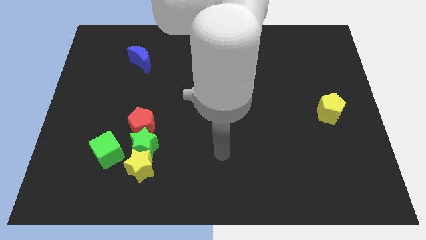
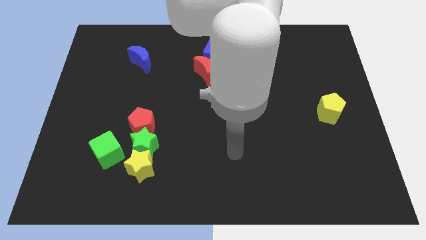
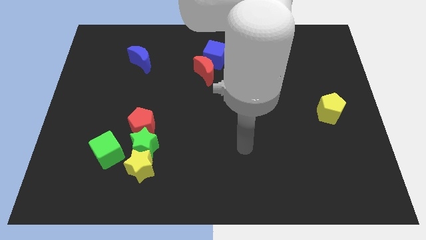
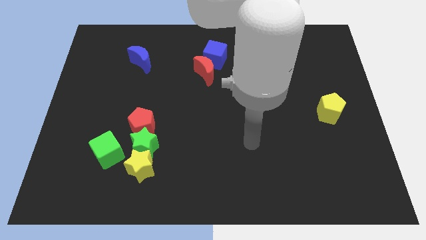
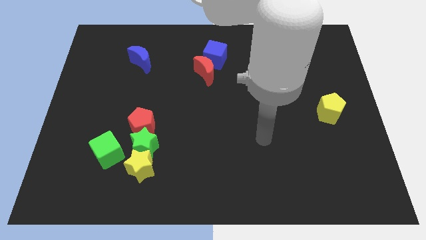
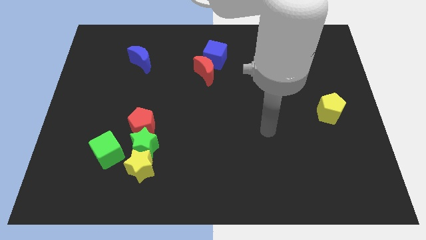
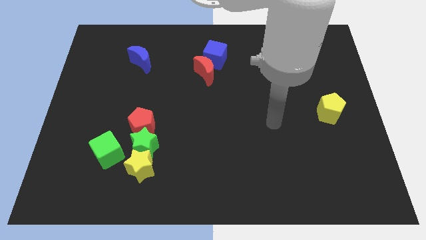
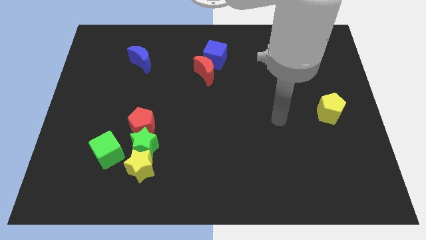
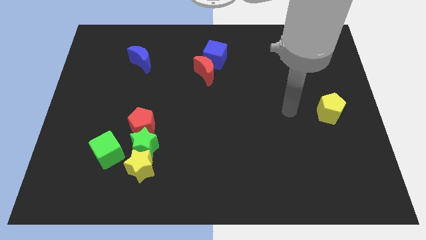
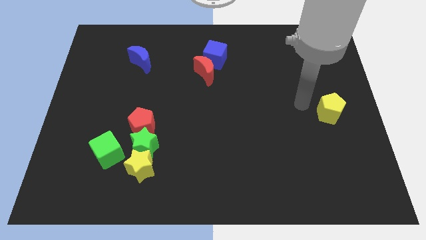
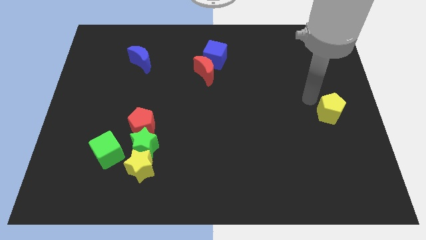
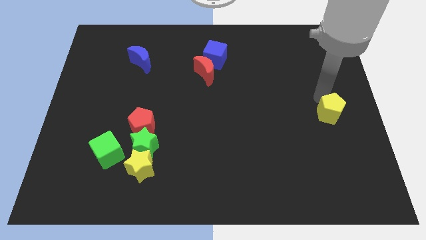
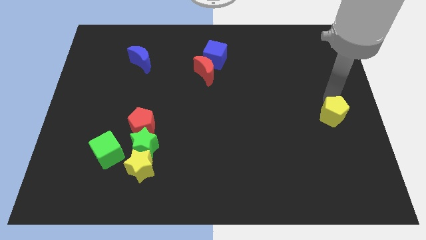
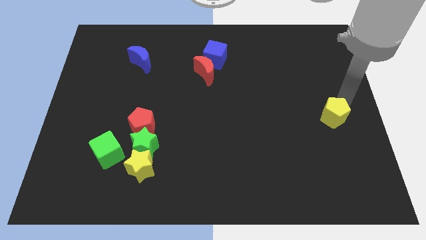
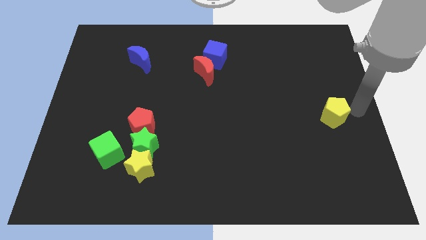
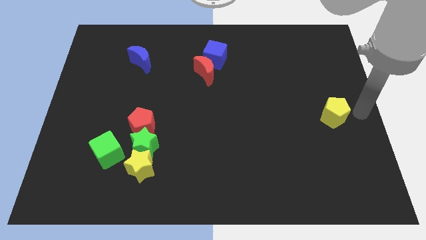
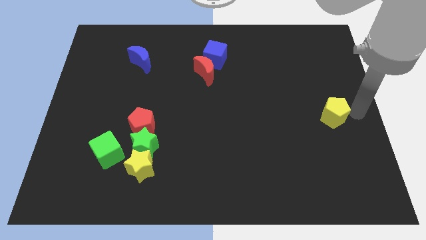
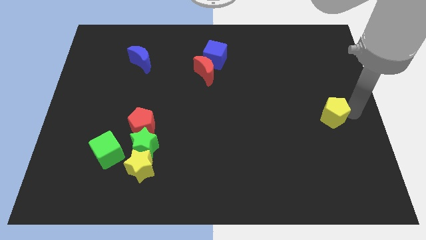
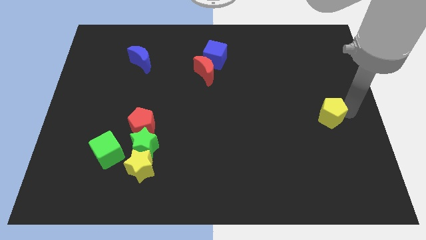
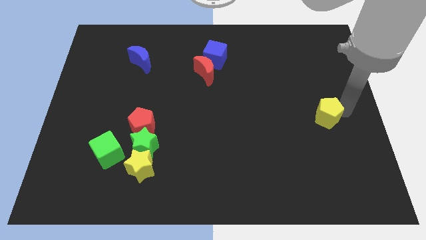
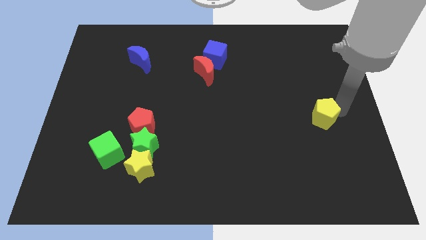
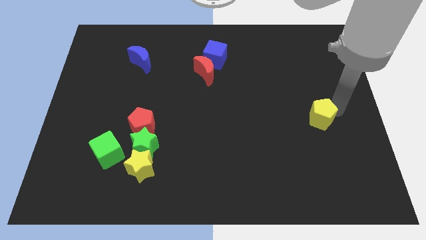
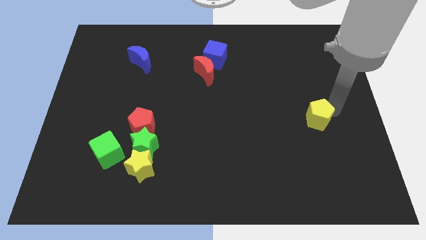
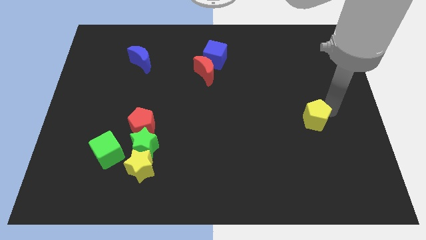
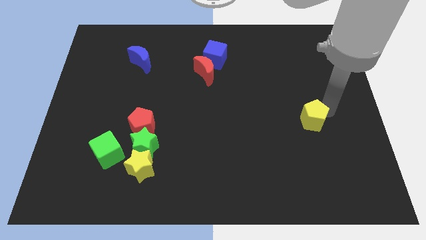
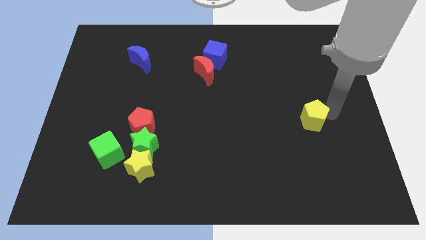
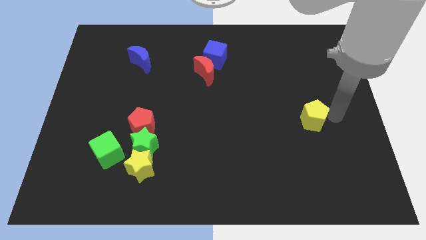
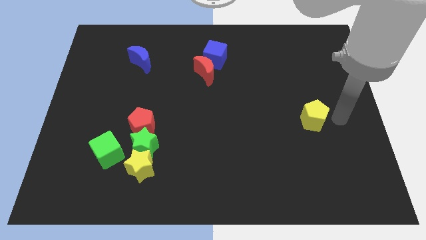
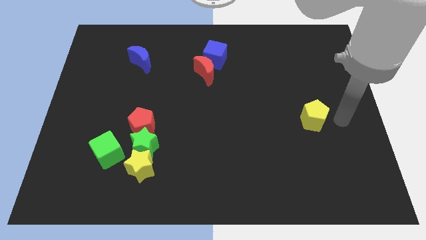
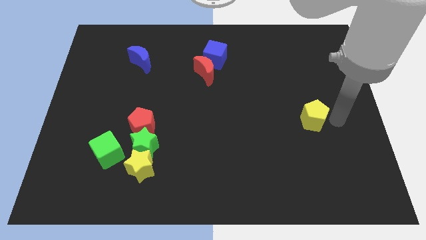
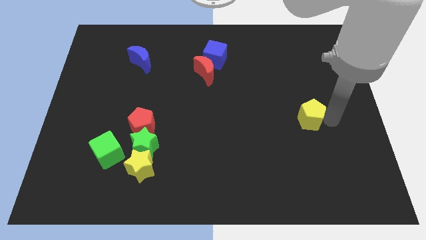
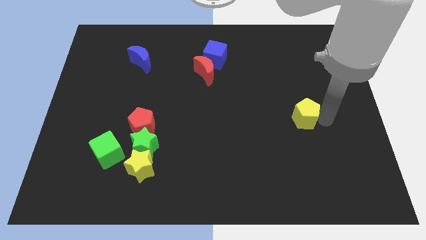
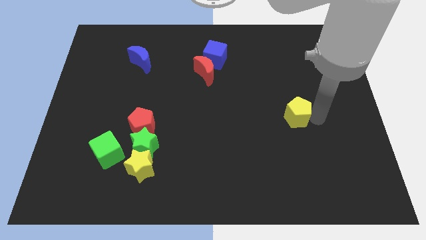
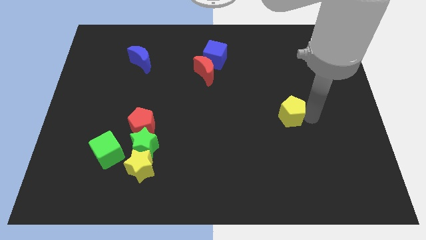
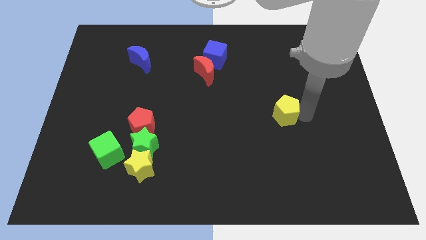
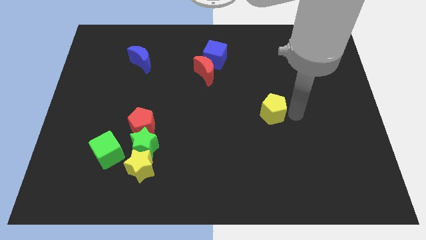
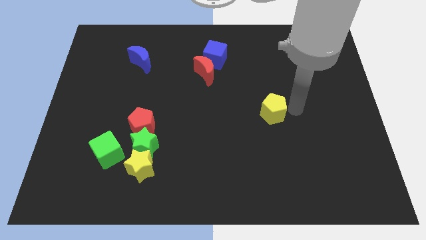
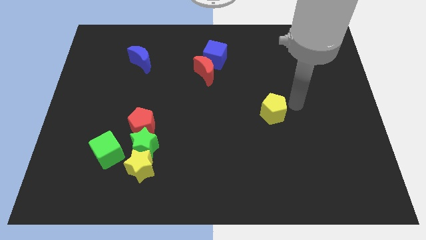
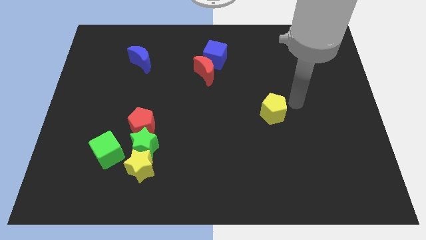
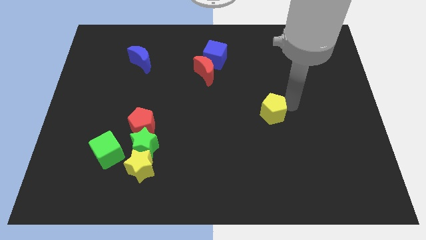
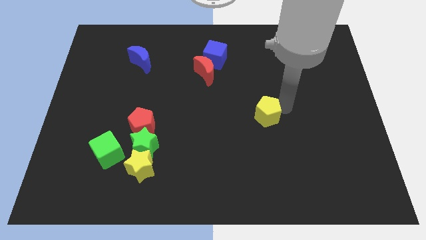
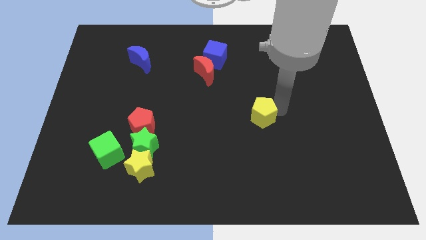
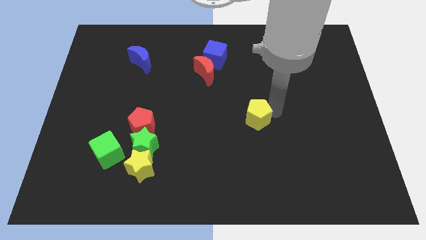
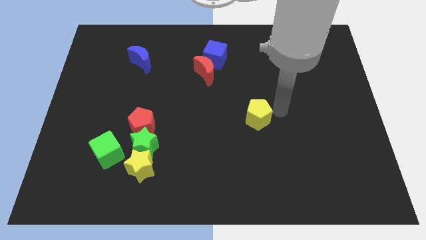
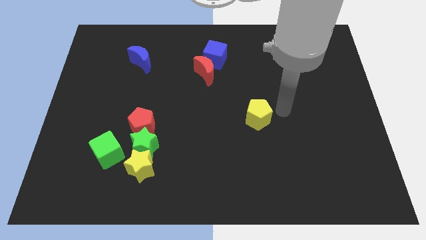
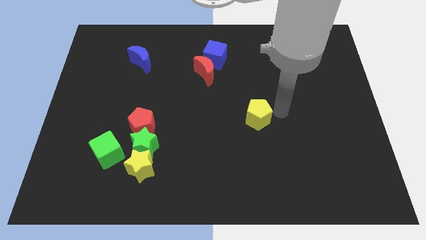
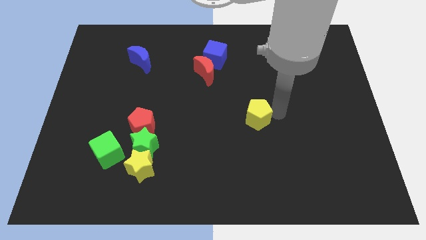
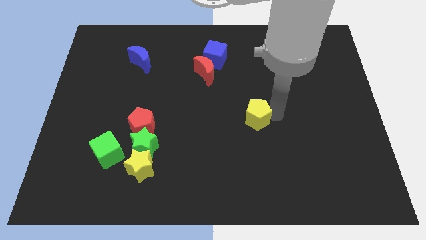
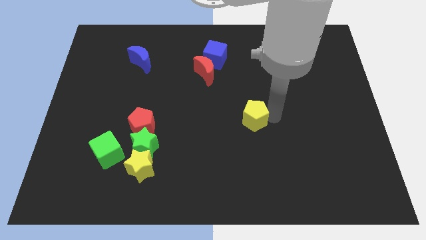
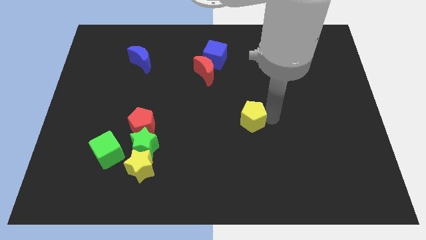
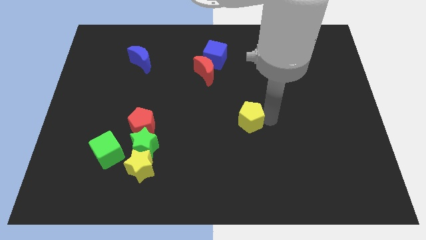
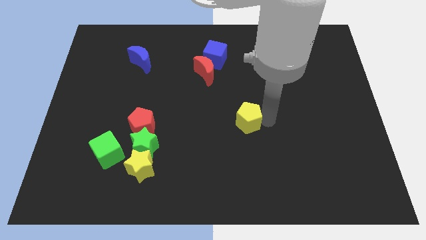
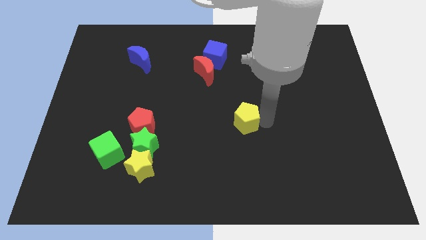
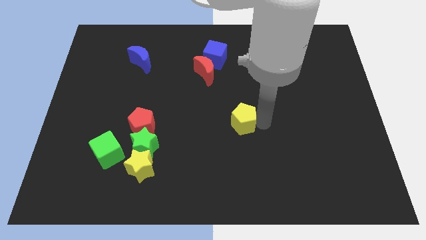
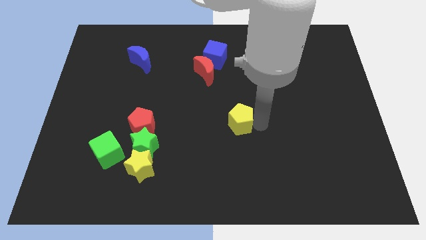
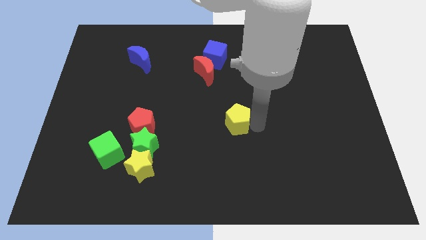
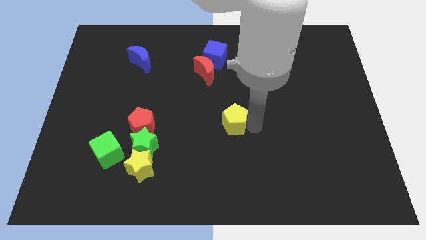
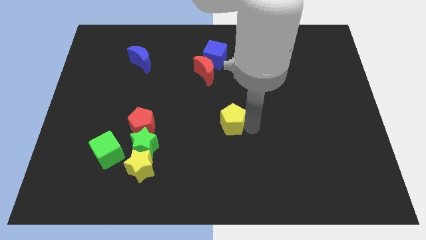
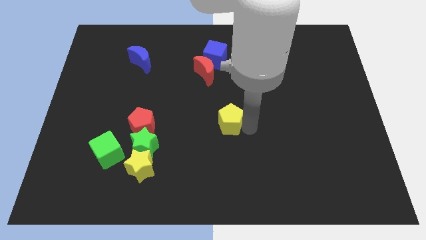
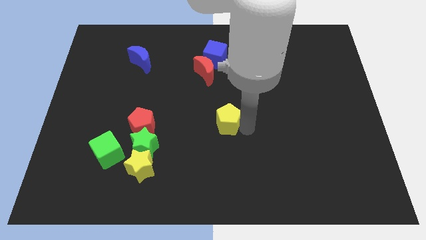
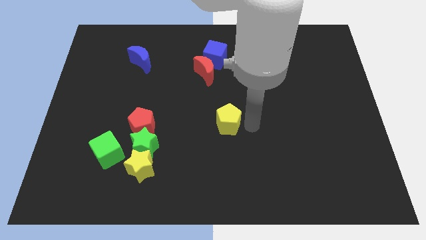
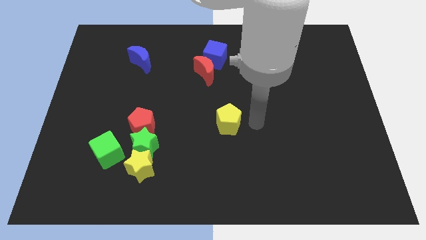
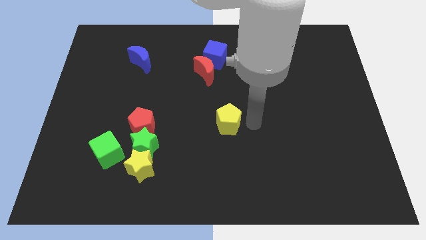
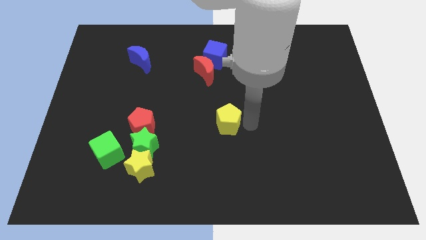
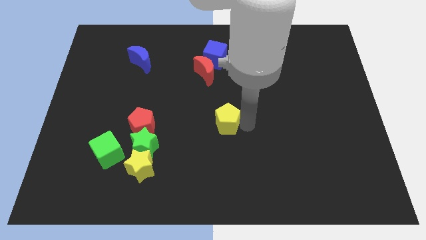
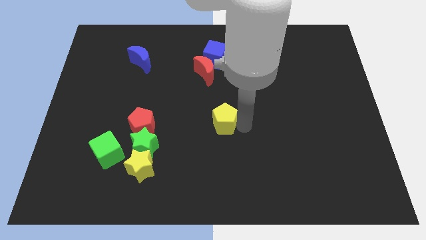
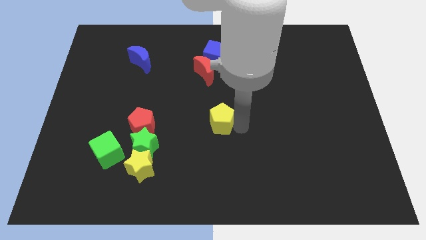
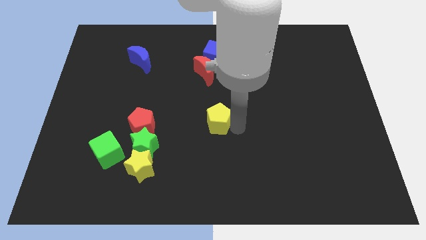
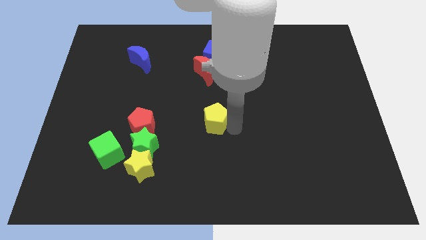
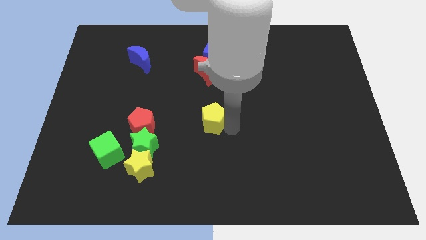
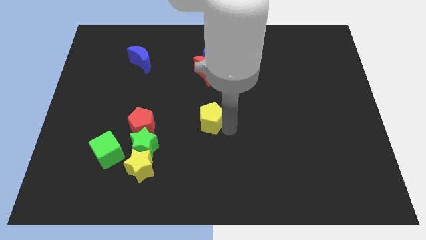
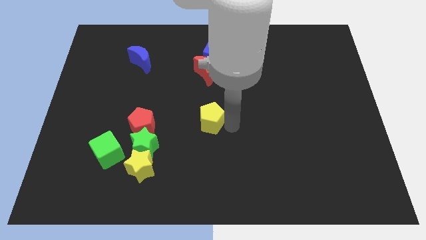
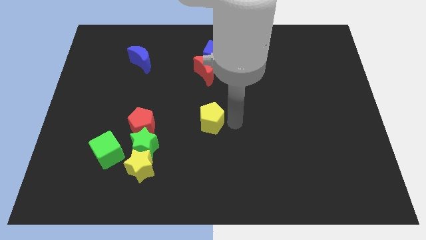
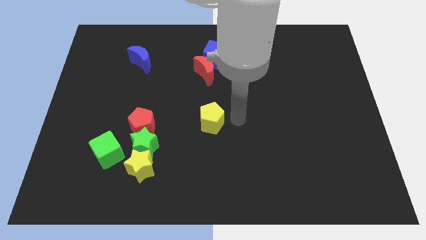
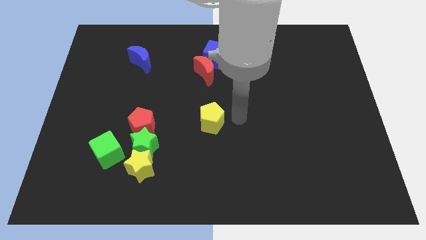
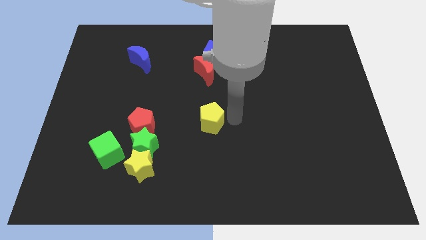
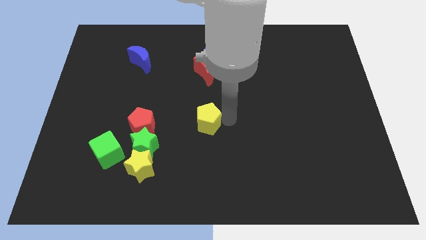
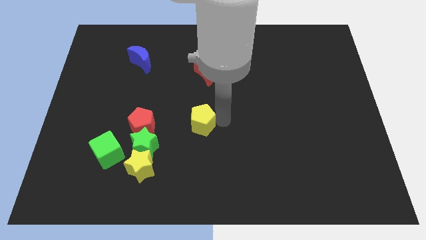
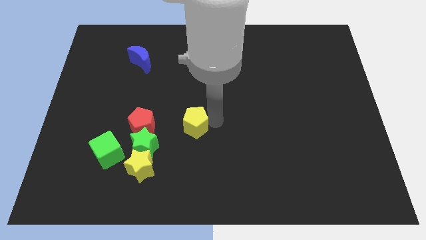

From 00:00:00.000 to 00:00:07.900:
put the yellow pentagon diagonally up and to the right of the green star
